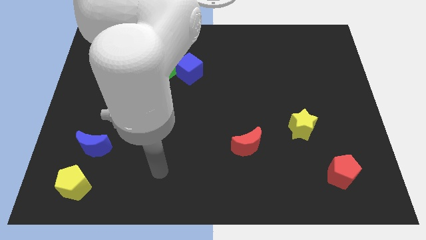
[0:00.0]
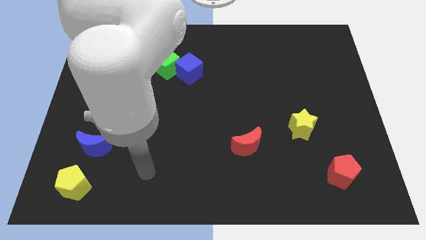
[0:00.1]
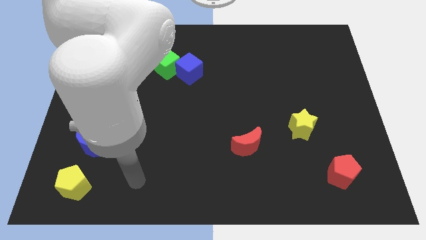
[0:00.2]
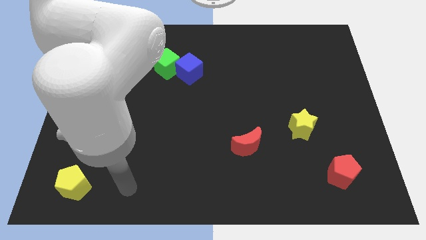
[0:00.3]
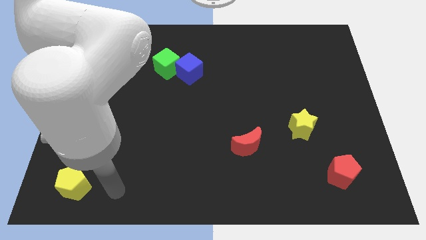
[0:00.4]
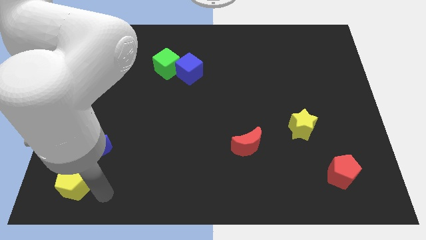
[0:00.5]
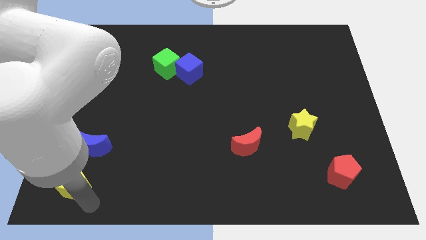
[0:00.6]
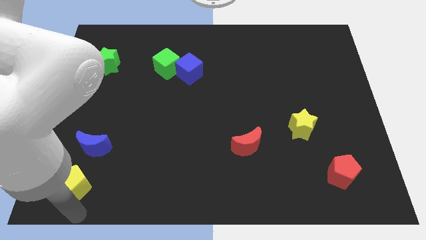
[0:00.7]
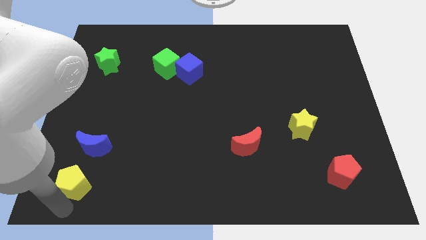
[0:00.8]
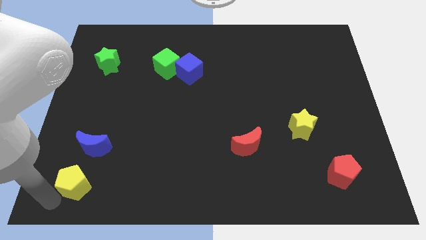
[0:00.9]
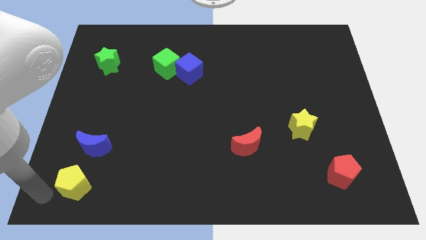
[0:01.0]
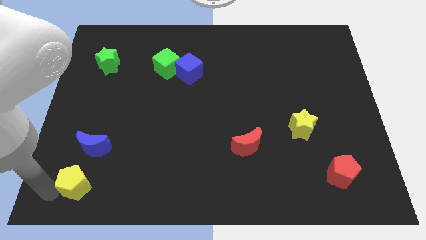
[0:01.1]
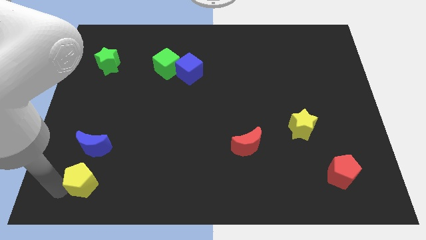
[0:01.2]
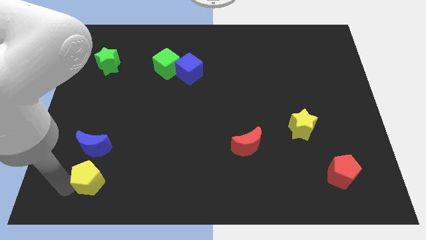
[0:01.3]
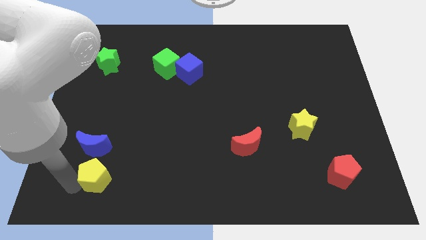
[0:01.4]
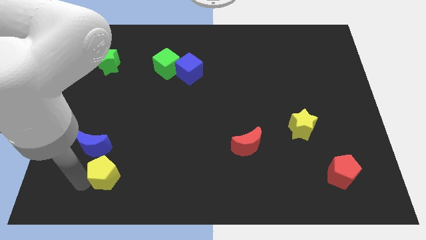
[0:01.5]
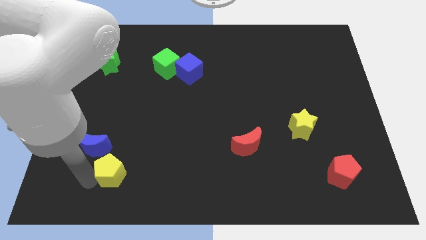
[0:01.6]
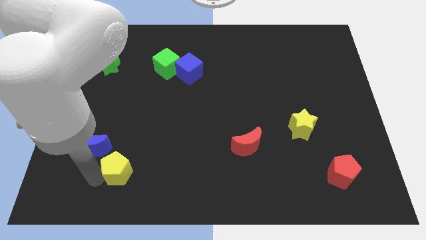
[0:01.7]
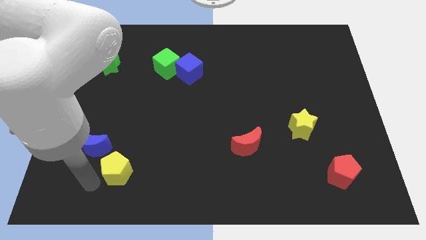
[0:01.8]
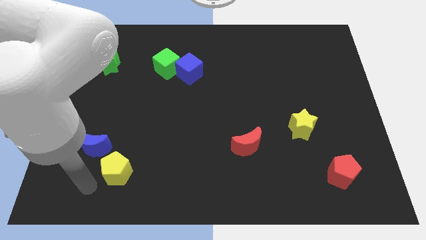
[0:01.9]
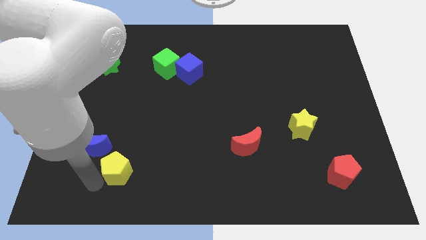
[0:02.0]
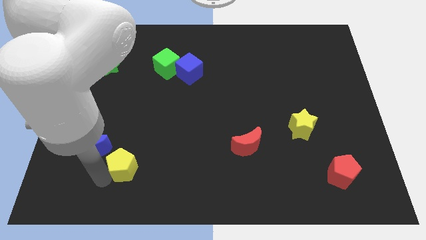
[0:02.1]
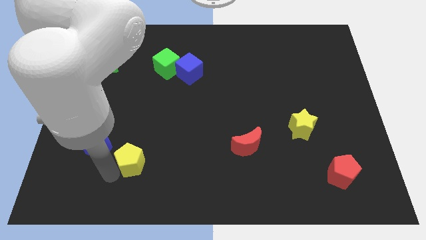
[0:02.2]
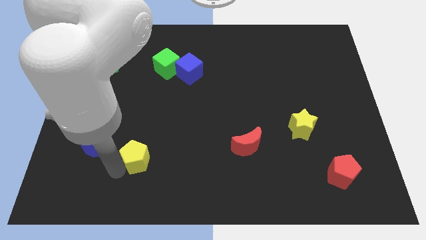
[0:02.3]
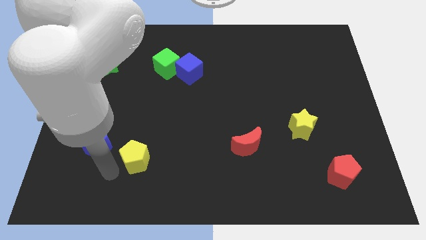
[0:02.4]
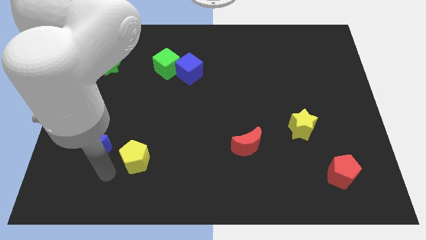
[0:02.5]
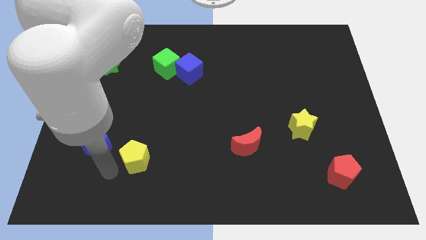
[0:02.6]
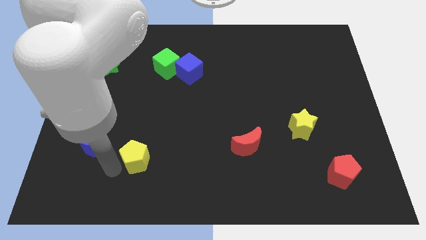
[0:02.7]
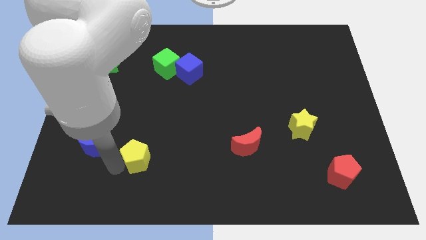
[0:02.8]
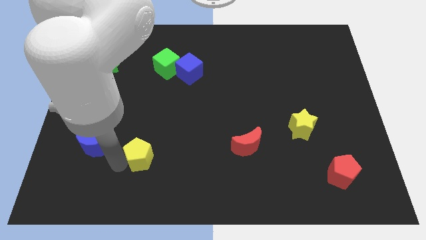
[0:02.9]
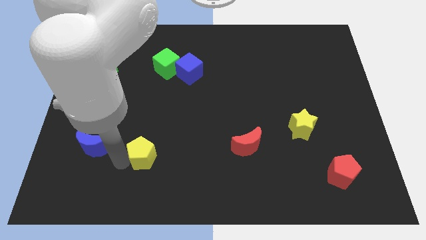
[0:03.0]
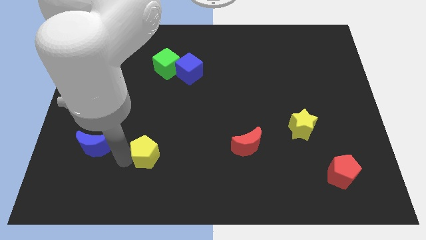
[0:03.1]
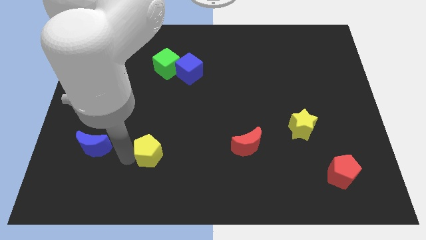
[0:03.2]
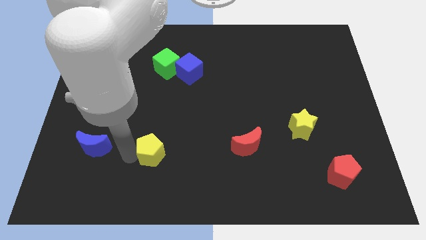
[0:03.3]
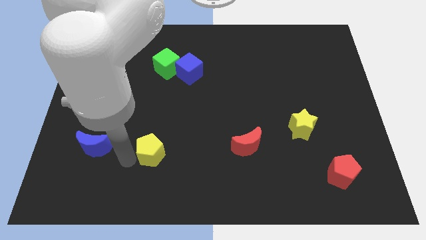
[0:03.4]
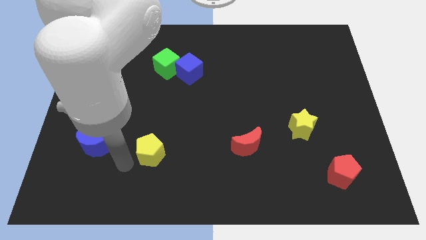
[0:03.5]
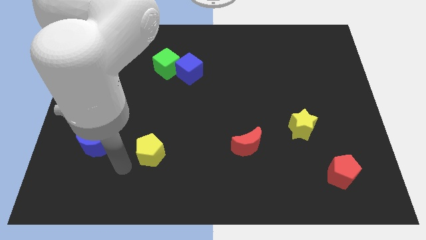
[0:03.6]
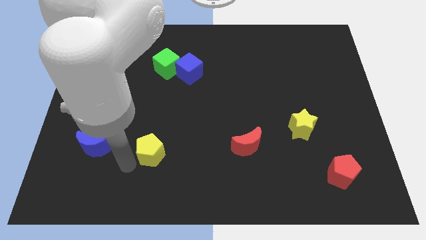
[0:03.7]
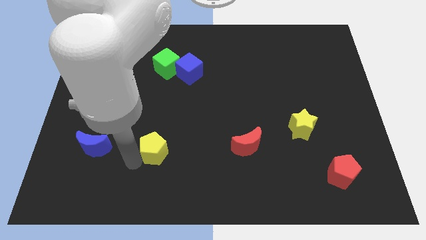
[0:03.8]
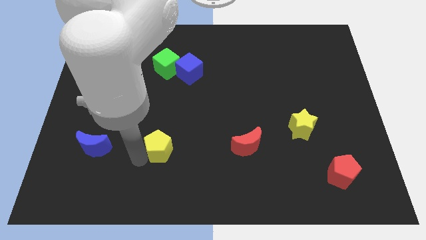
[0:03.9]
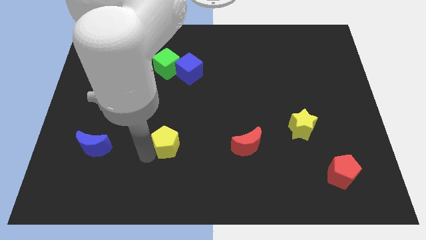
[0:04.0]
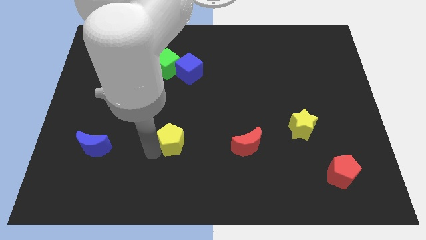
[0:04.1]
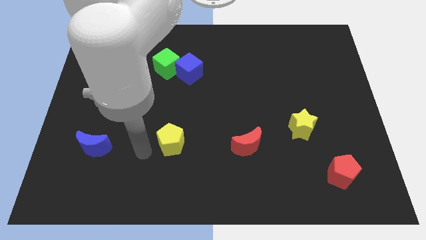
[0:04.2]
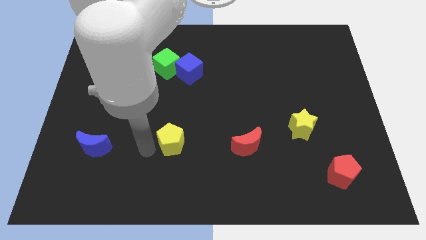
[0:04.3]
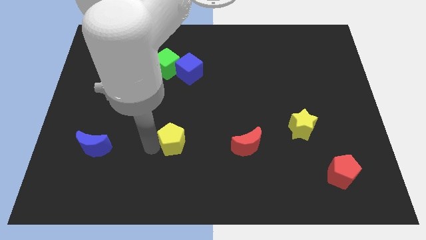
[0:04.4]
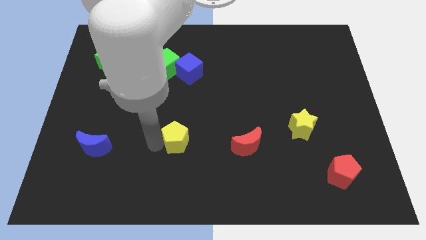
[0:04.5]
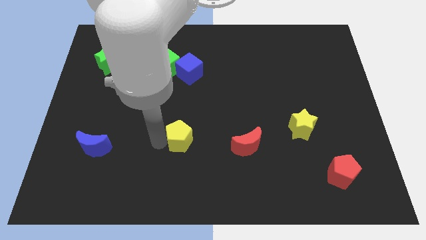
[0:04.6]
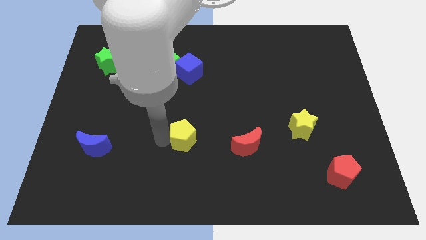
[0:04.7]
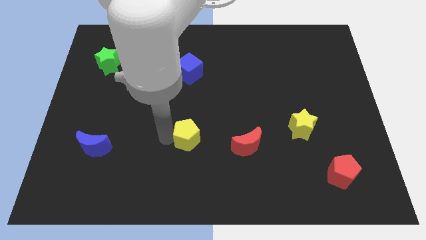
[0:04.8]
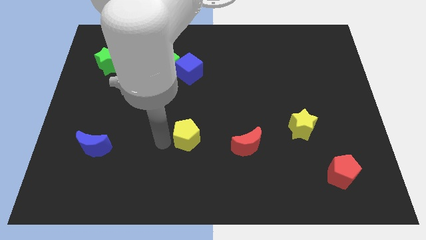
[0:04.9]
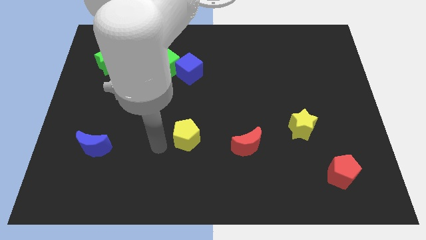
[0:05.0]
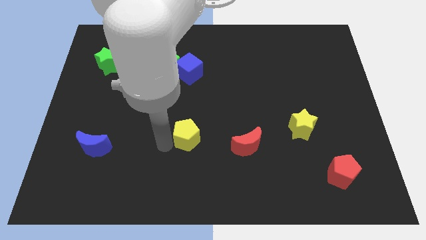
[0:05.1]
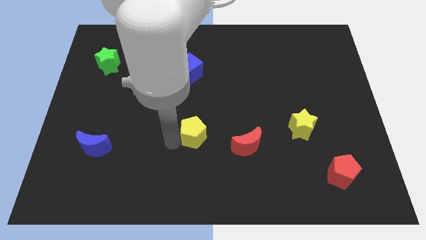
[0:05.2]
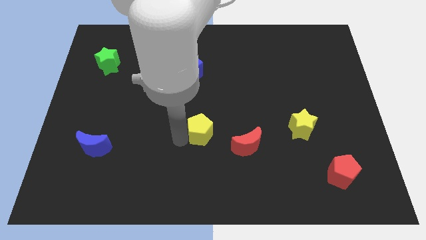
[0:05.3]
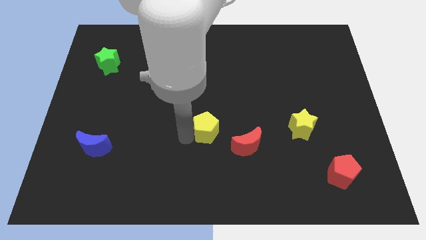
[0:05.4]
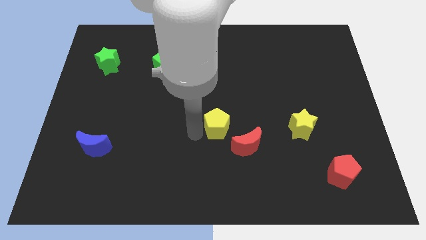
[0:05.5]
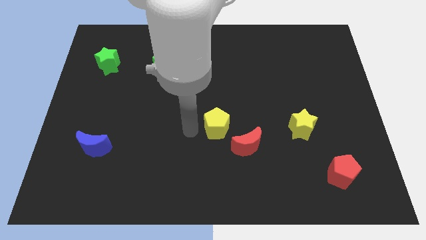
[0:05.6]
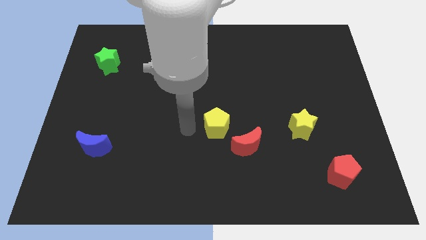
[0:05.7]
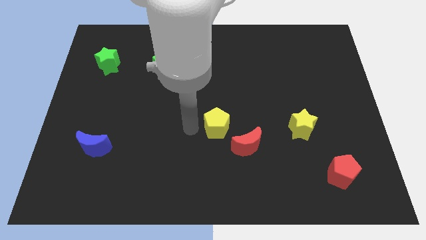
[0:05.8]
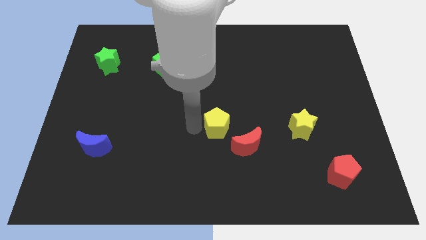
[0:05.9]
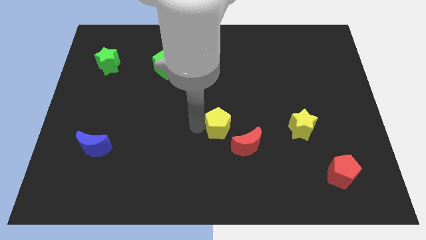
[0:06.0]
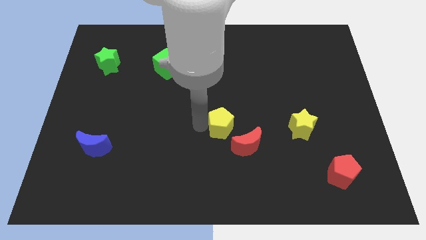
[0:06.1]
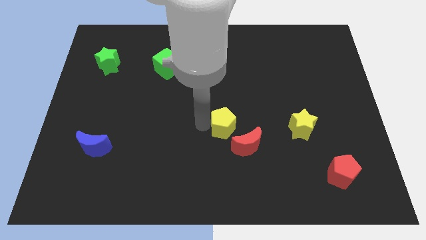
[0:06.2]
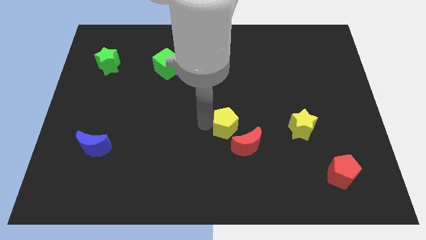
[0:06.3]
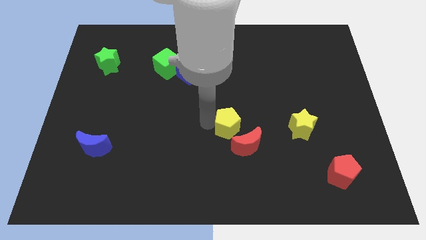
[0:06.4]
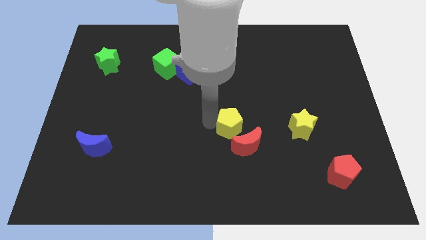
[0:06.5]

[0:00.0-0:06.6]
push the yellow pentagon just left of the yellow star

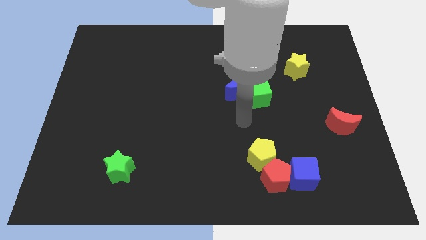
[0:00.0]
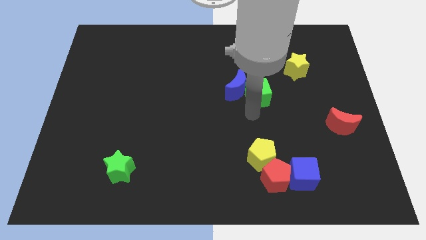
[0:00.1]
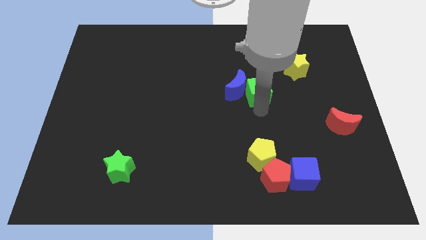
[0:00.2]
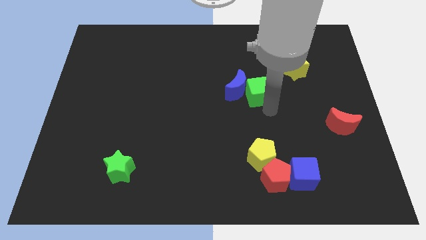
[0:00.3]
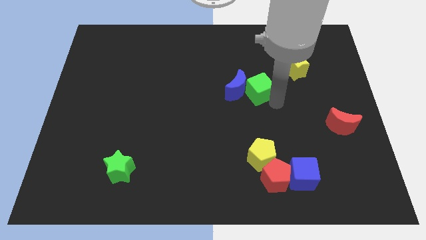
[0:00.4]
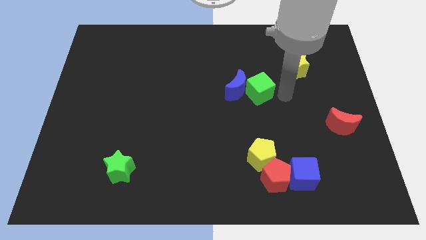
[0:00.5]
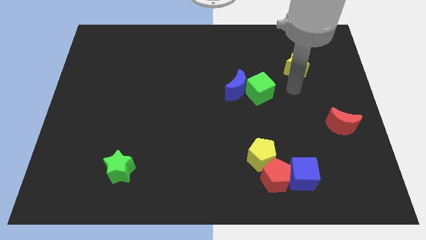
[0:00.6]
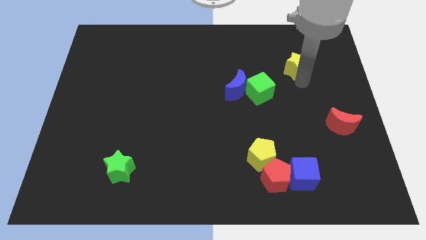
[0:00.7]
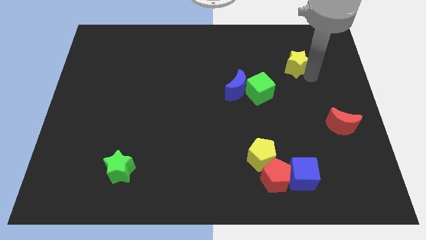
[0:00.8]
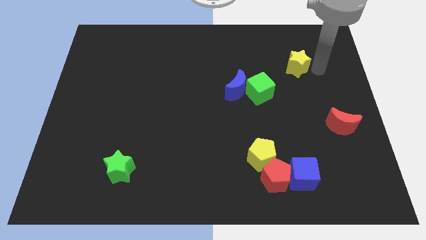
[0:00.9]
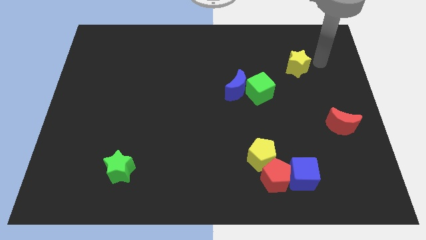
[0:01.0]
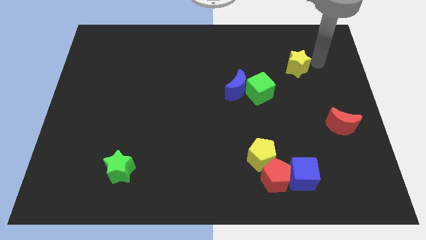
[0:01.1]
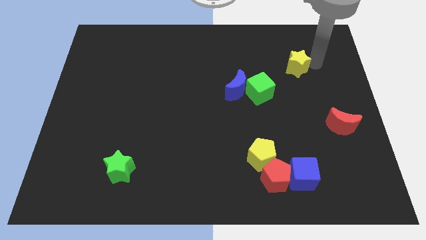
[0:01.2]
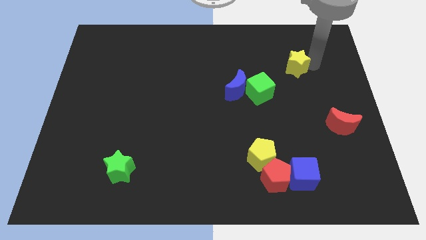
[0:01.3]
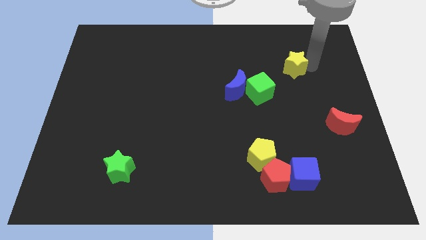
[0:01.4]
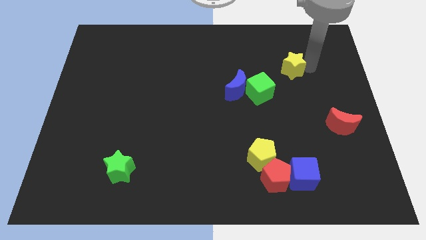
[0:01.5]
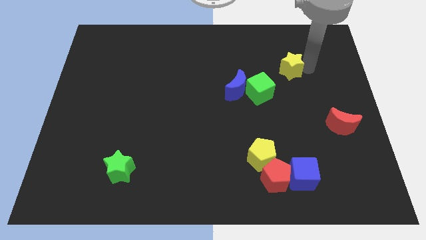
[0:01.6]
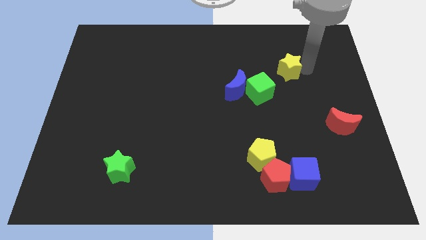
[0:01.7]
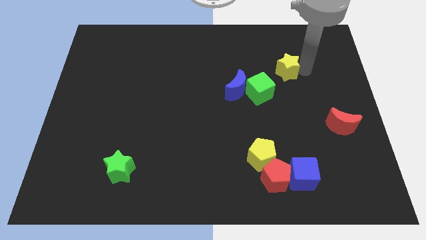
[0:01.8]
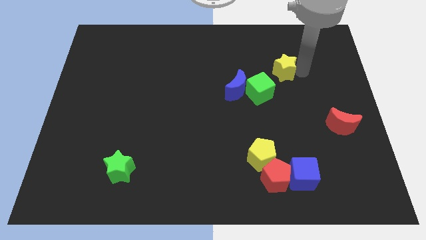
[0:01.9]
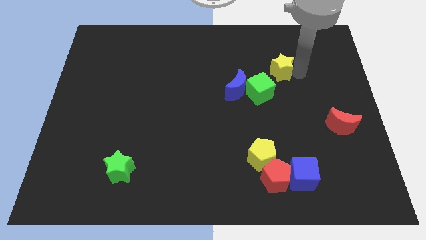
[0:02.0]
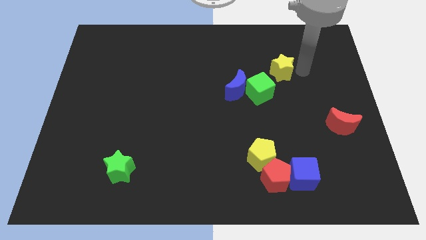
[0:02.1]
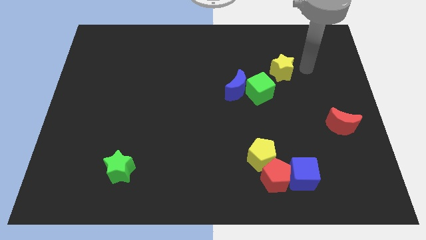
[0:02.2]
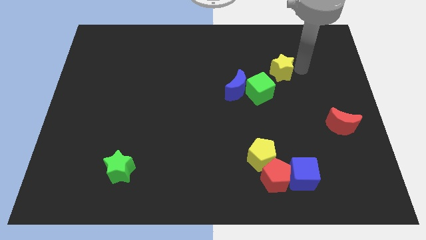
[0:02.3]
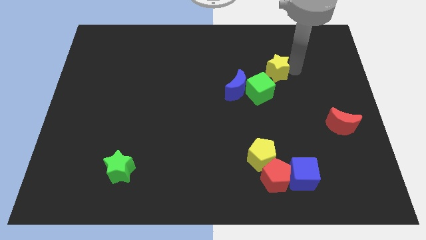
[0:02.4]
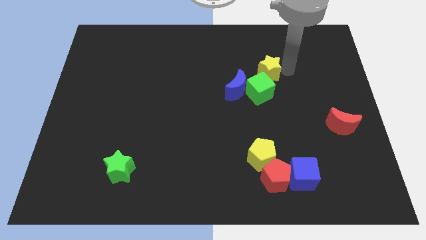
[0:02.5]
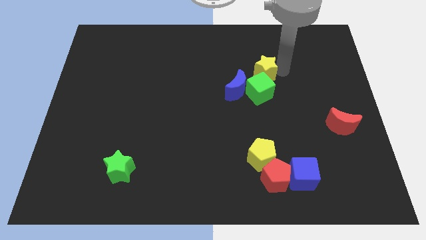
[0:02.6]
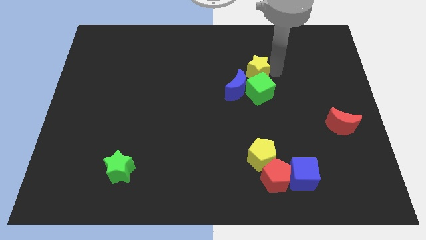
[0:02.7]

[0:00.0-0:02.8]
push the yellow star to the top left side of the green cube
